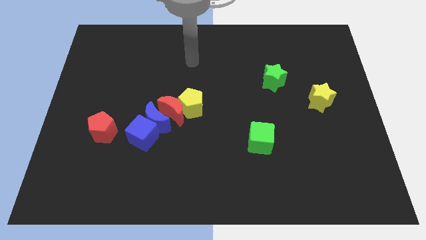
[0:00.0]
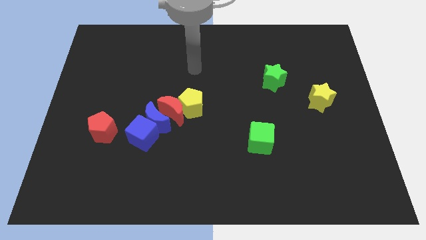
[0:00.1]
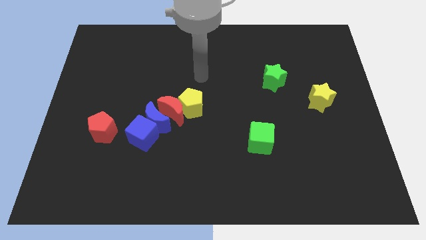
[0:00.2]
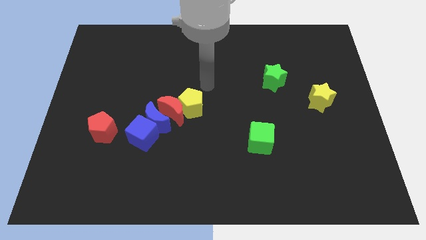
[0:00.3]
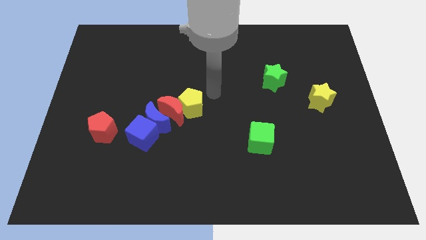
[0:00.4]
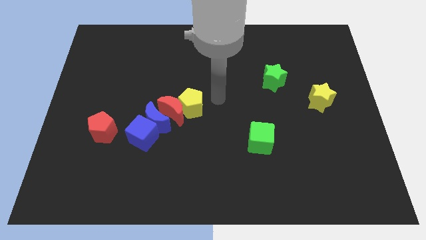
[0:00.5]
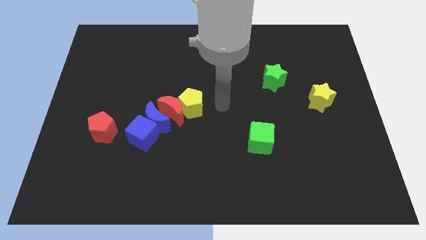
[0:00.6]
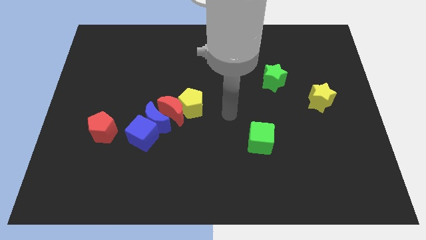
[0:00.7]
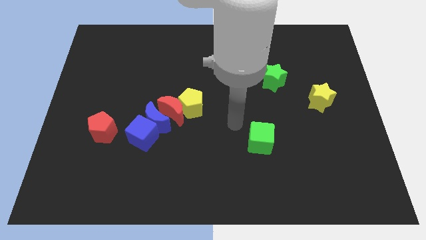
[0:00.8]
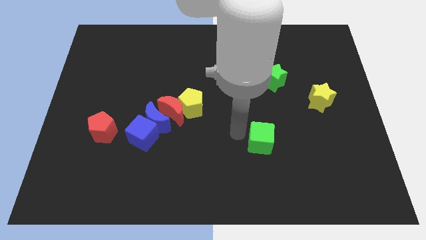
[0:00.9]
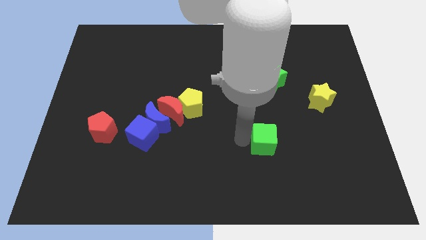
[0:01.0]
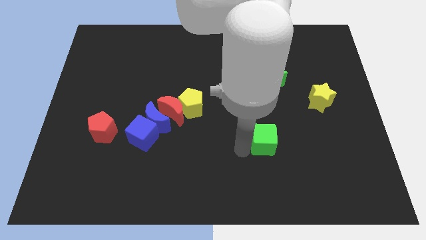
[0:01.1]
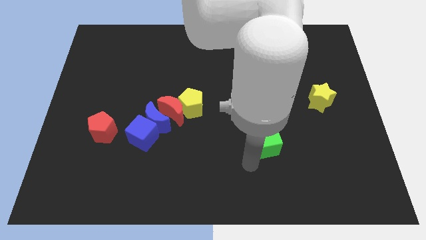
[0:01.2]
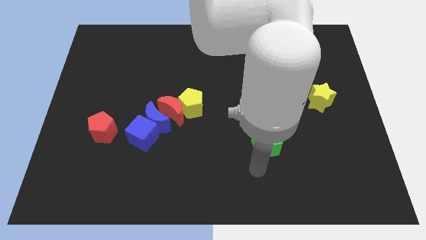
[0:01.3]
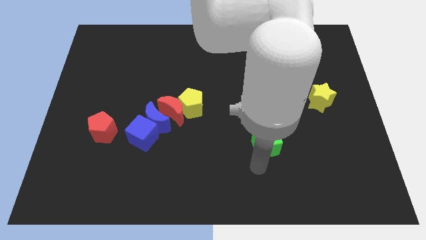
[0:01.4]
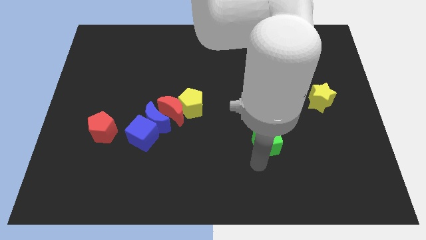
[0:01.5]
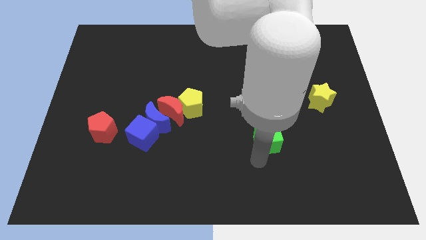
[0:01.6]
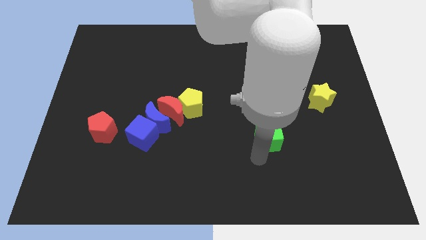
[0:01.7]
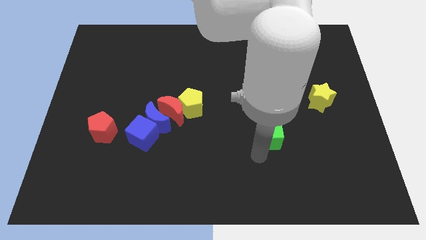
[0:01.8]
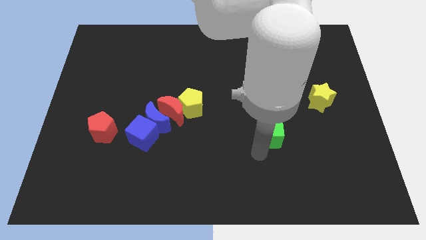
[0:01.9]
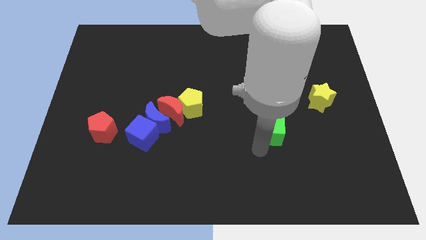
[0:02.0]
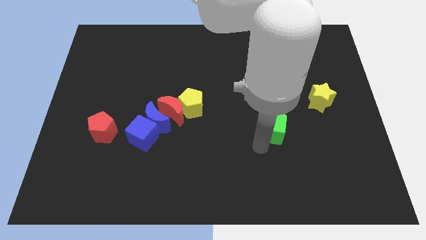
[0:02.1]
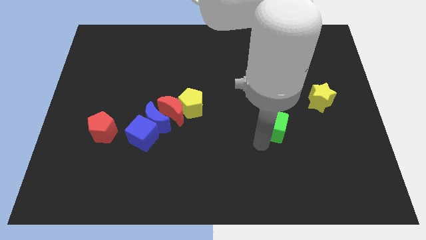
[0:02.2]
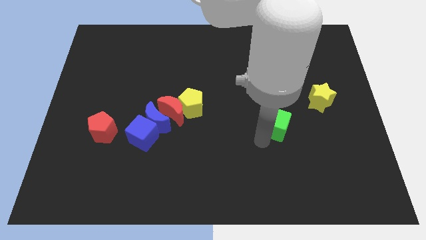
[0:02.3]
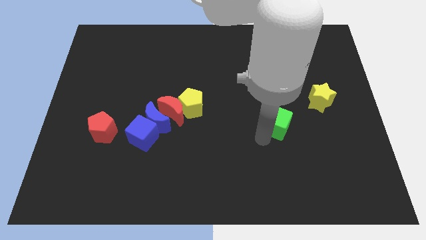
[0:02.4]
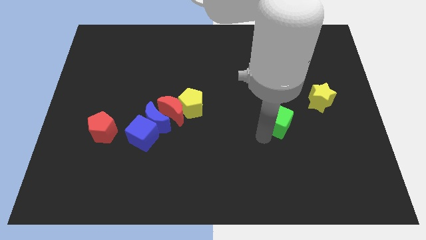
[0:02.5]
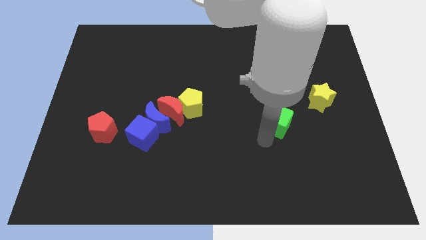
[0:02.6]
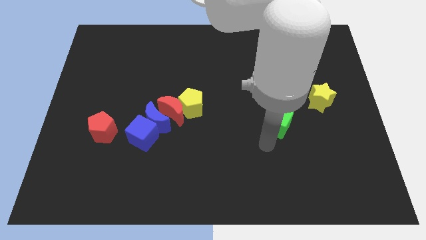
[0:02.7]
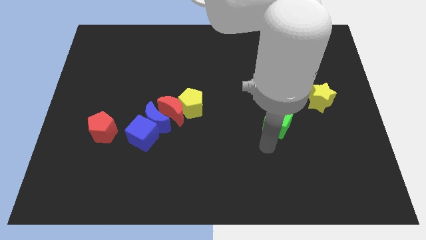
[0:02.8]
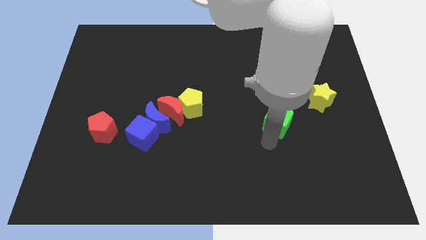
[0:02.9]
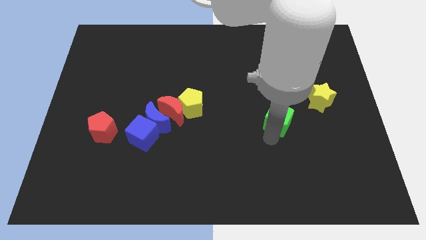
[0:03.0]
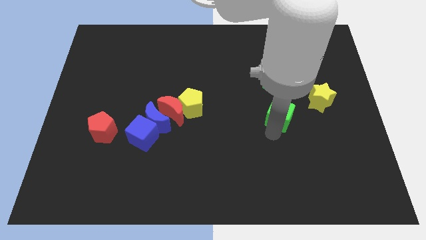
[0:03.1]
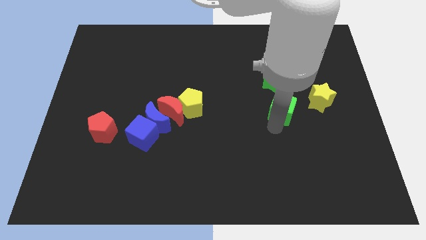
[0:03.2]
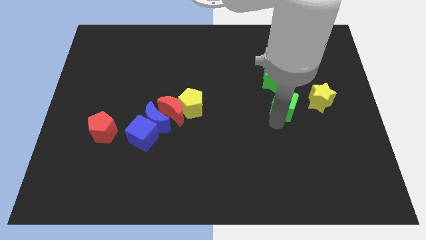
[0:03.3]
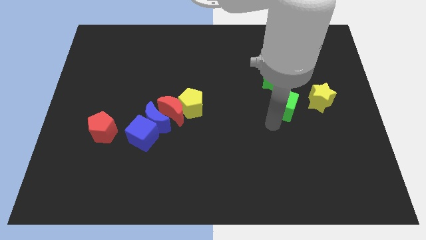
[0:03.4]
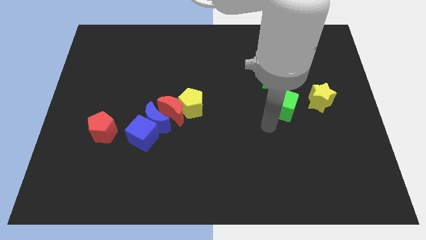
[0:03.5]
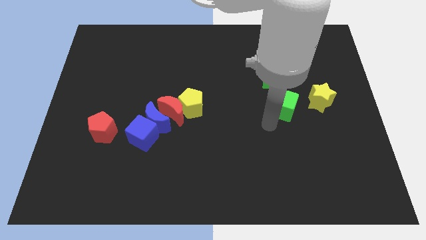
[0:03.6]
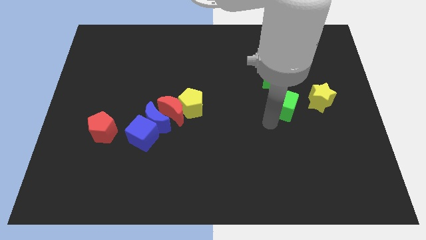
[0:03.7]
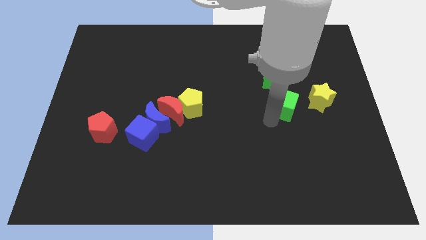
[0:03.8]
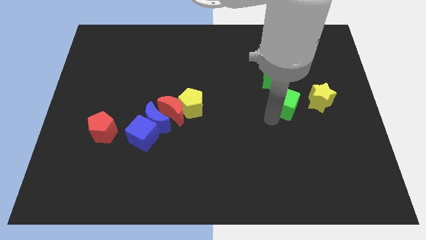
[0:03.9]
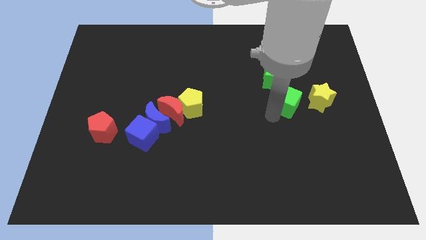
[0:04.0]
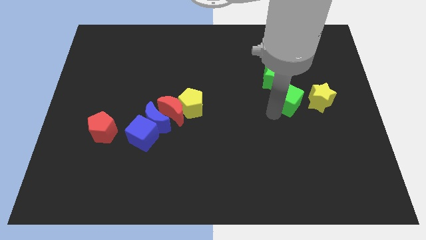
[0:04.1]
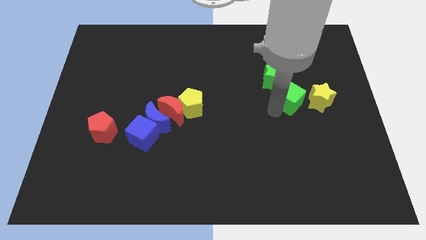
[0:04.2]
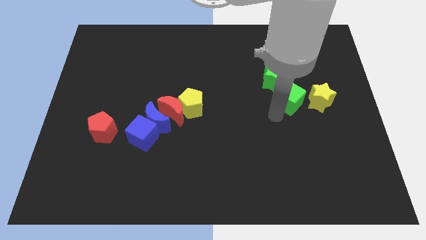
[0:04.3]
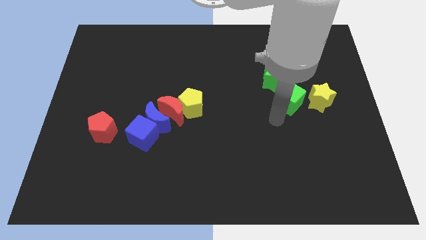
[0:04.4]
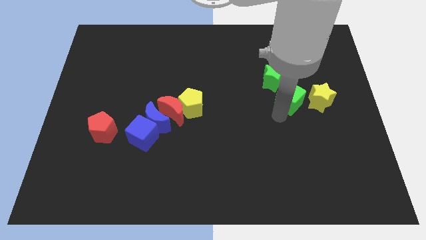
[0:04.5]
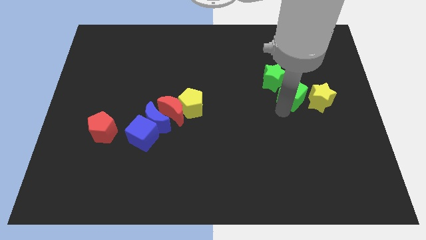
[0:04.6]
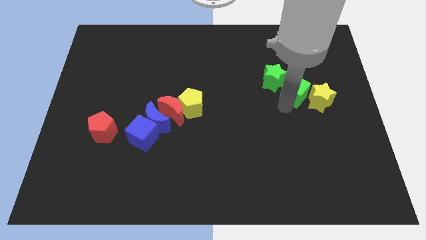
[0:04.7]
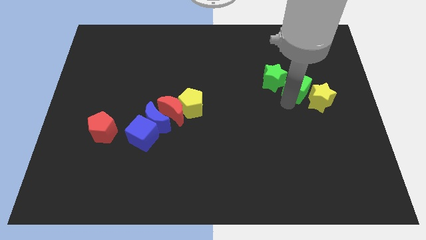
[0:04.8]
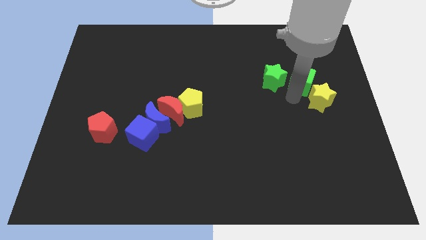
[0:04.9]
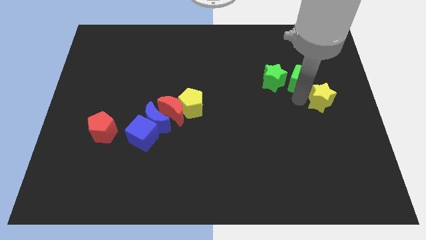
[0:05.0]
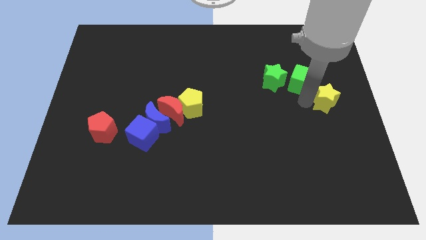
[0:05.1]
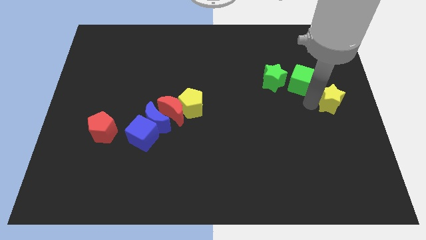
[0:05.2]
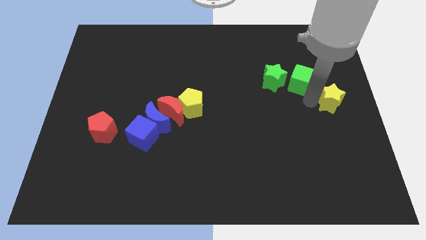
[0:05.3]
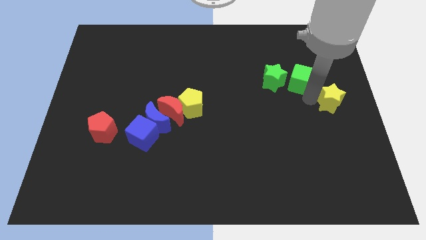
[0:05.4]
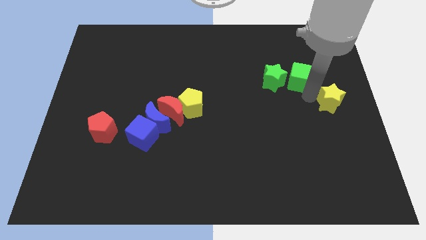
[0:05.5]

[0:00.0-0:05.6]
put the green cube diagonally up and to the right of the green star

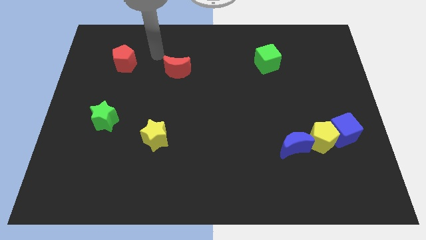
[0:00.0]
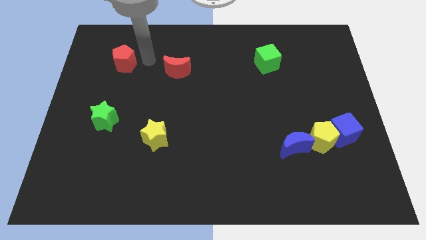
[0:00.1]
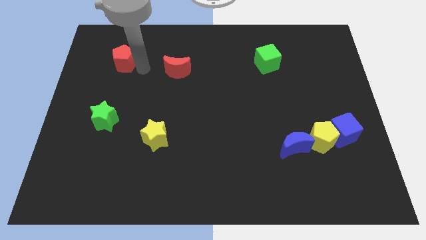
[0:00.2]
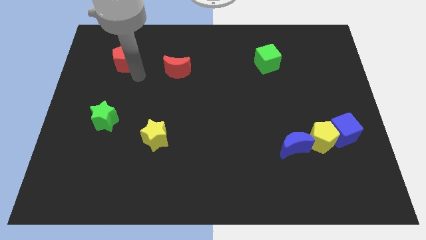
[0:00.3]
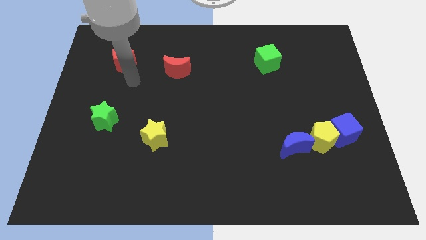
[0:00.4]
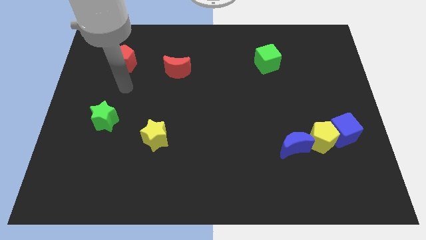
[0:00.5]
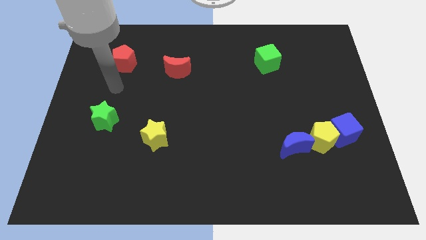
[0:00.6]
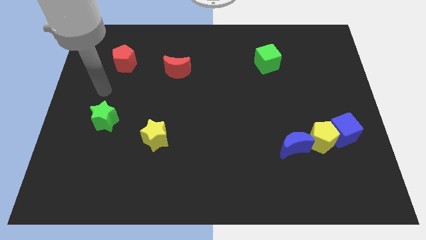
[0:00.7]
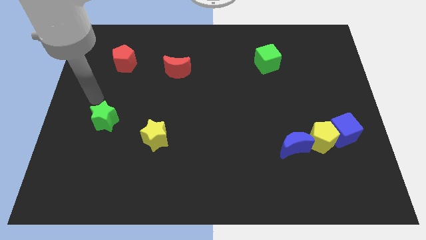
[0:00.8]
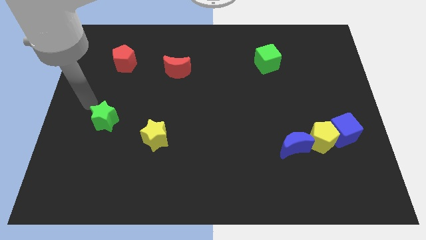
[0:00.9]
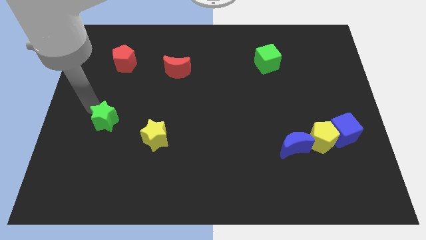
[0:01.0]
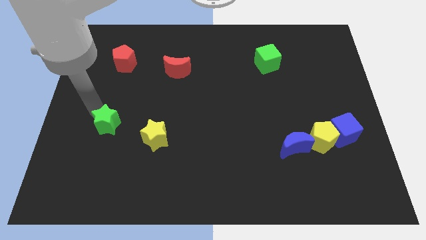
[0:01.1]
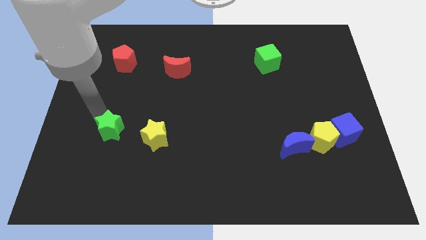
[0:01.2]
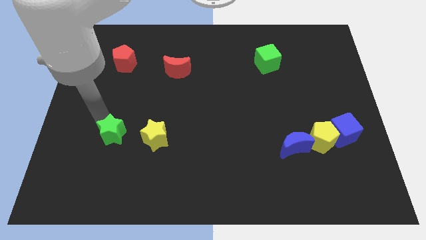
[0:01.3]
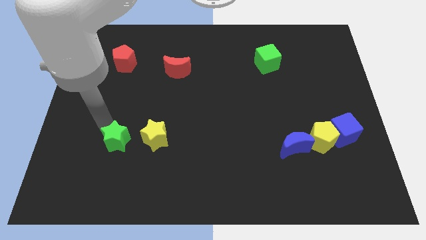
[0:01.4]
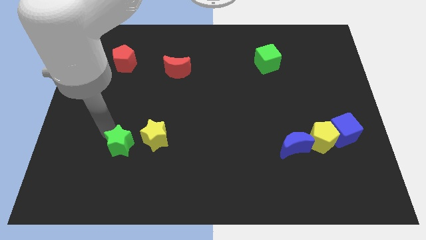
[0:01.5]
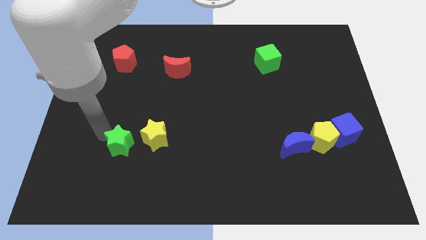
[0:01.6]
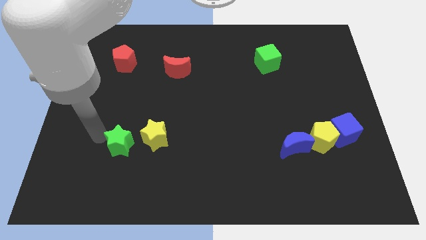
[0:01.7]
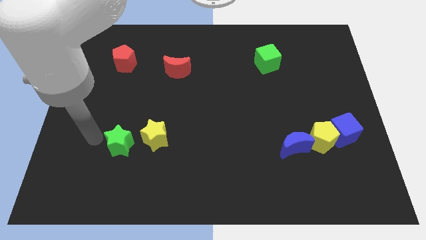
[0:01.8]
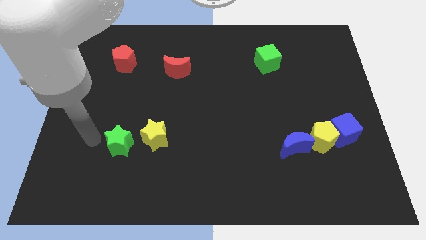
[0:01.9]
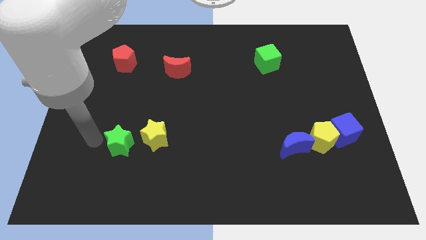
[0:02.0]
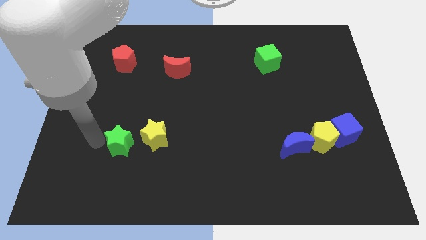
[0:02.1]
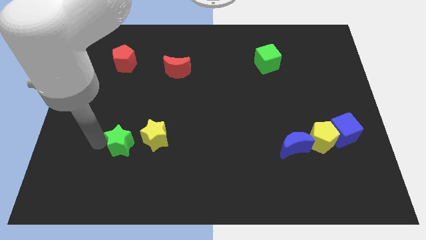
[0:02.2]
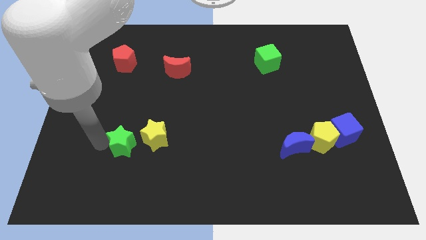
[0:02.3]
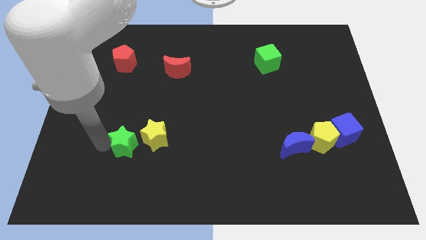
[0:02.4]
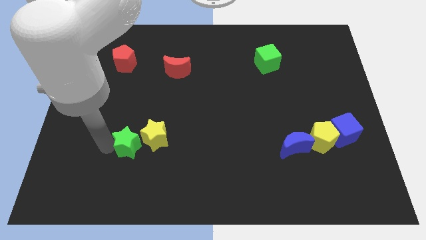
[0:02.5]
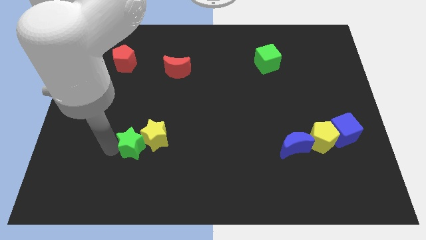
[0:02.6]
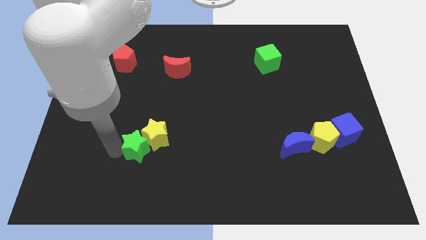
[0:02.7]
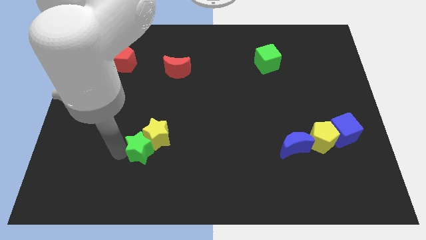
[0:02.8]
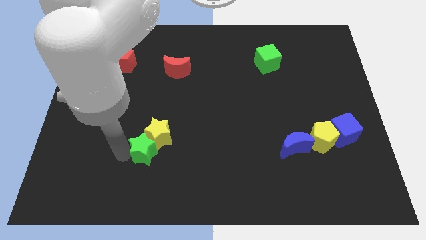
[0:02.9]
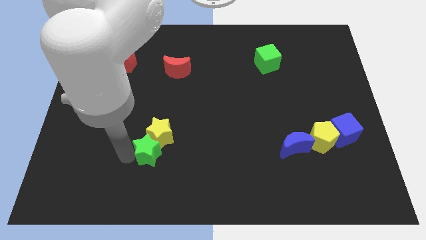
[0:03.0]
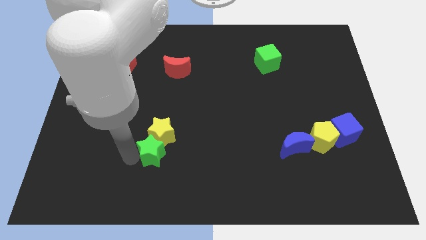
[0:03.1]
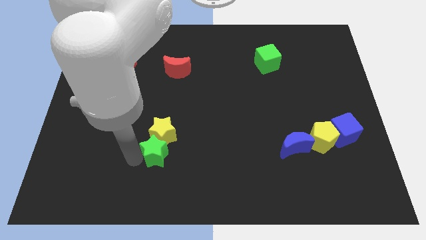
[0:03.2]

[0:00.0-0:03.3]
move the green star to the bottom right of the yellow star
